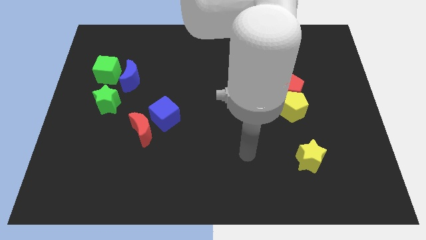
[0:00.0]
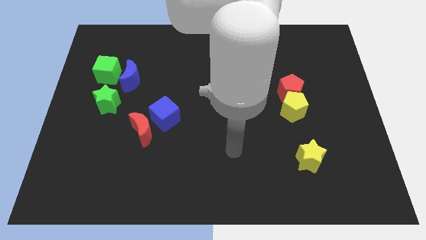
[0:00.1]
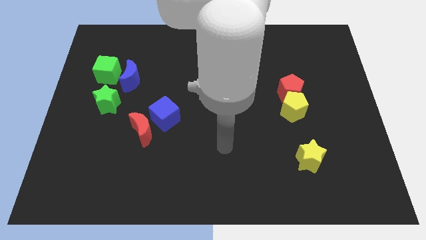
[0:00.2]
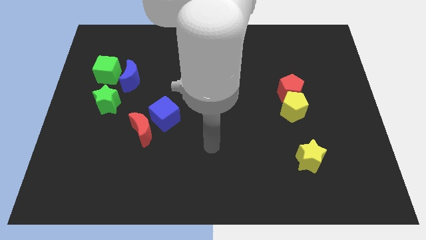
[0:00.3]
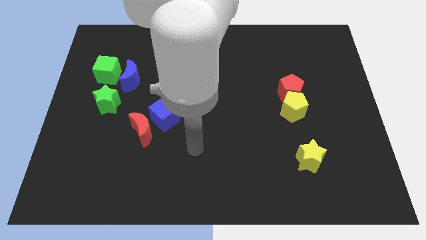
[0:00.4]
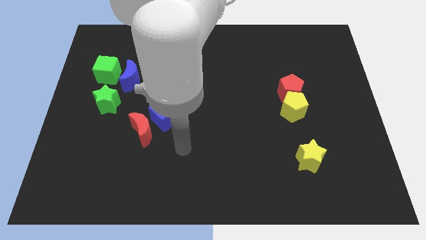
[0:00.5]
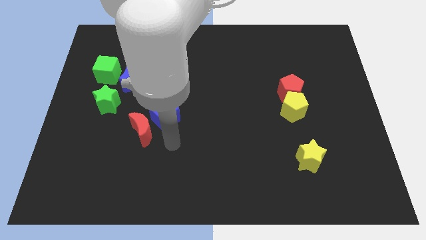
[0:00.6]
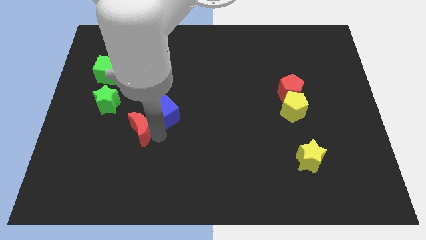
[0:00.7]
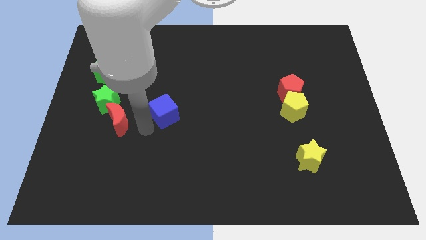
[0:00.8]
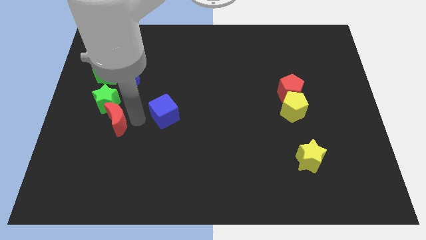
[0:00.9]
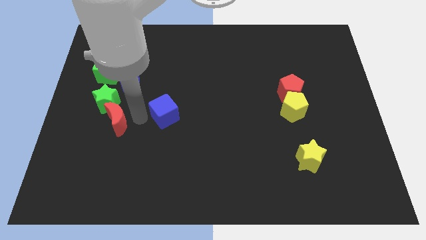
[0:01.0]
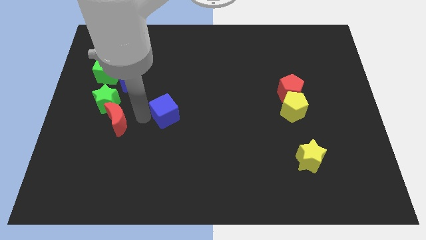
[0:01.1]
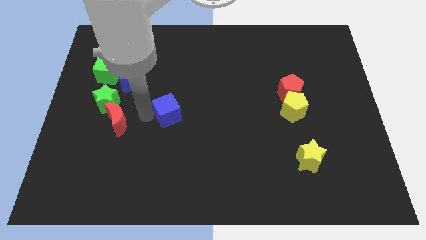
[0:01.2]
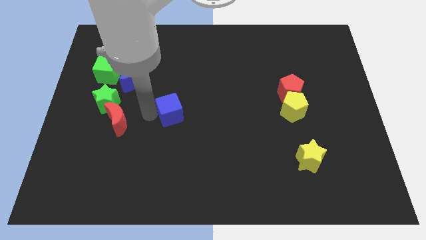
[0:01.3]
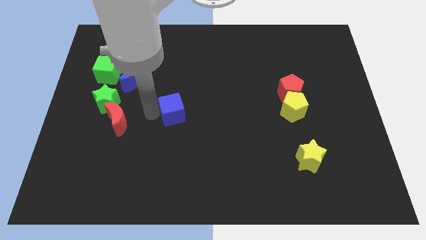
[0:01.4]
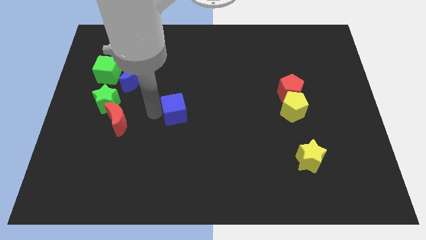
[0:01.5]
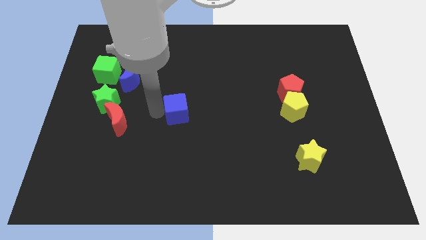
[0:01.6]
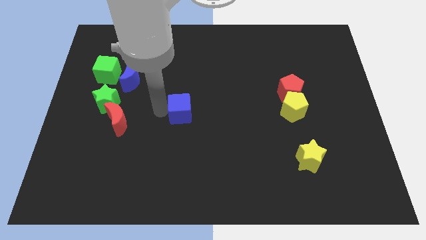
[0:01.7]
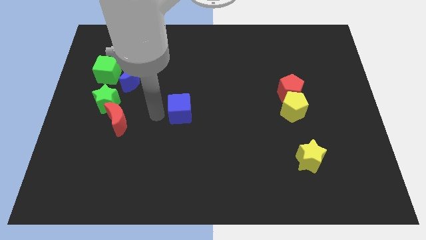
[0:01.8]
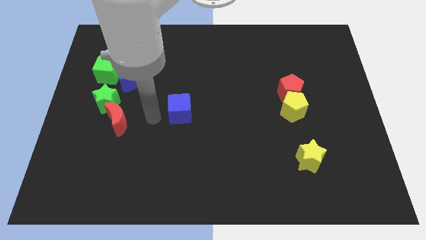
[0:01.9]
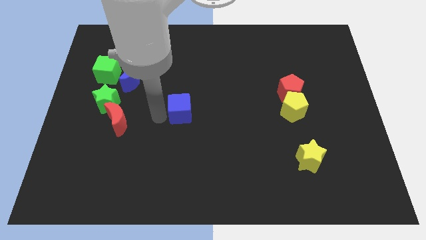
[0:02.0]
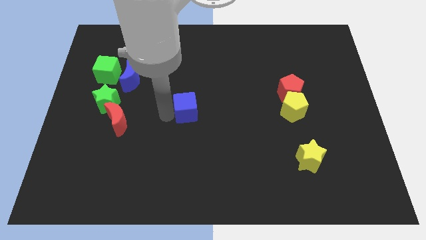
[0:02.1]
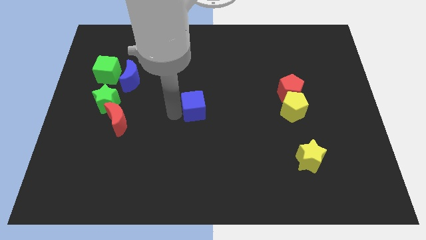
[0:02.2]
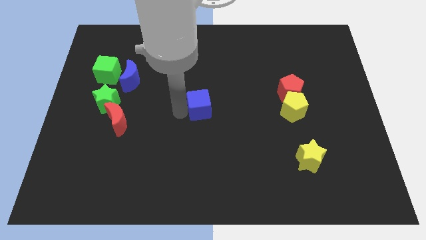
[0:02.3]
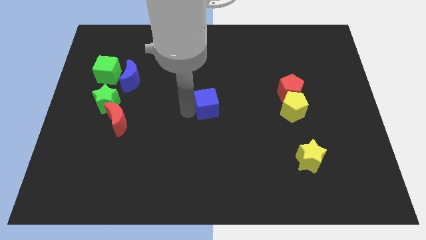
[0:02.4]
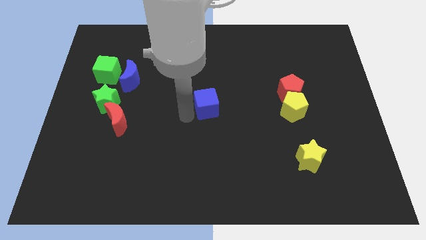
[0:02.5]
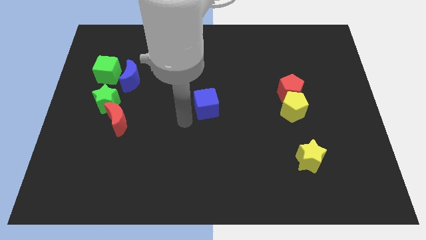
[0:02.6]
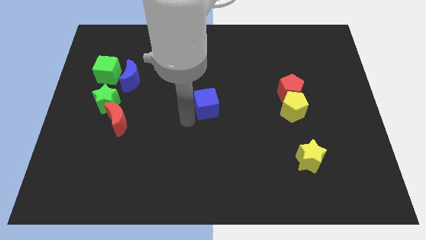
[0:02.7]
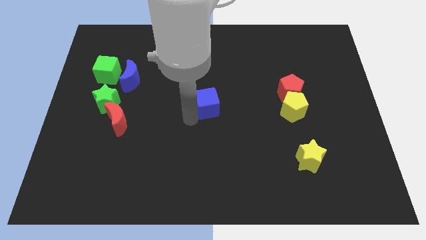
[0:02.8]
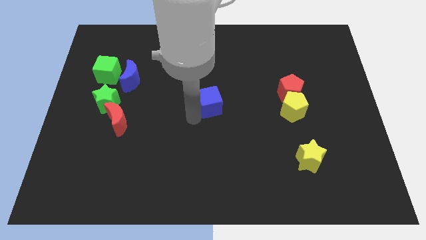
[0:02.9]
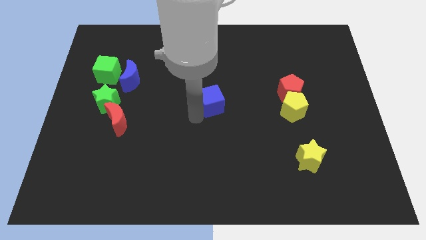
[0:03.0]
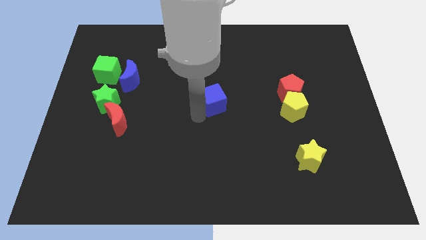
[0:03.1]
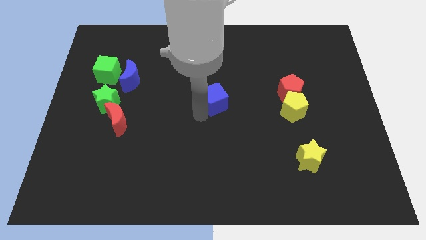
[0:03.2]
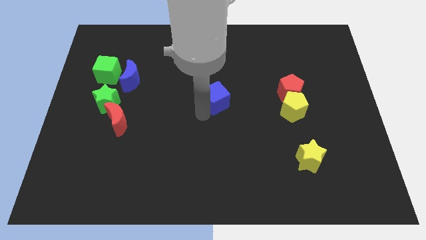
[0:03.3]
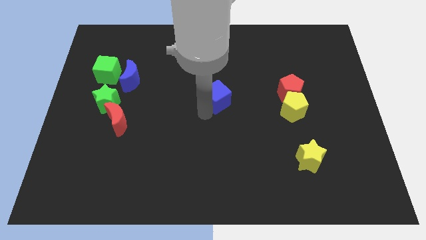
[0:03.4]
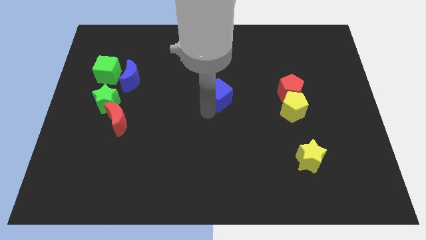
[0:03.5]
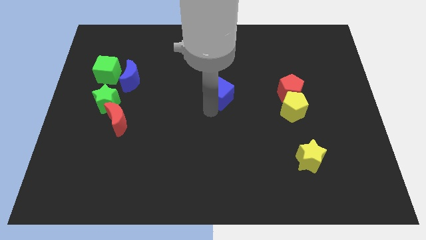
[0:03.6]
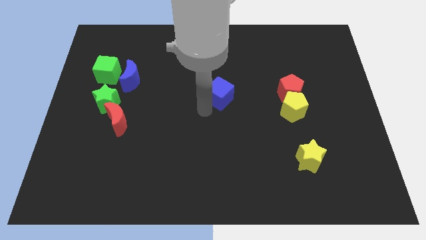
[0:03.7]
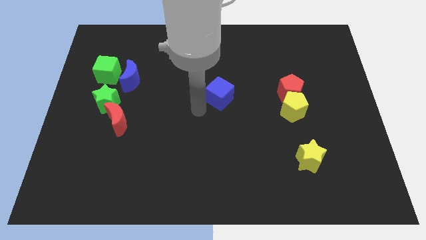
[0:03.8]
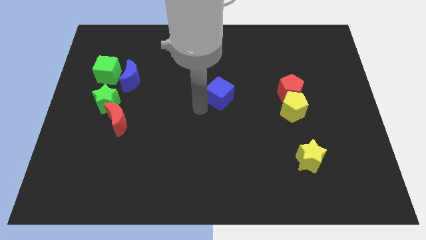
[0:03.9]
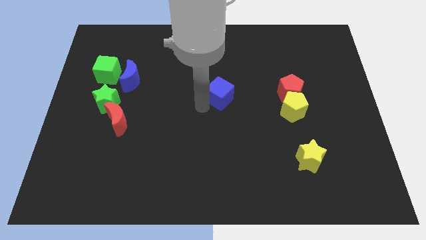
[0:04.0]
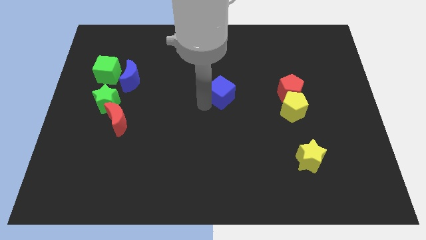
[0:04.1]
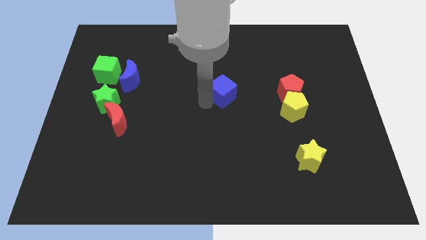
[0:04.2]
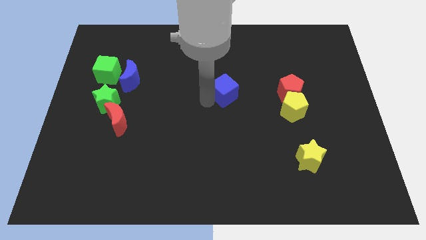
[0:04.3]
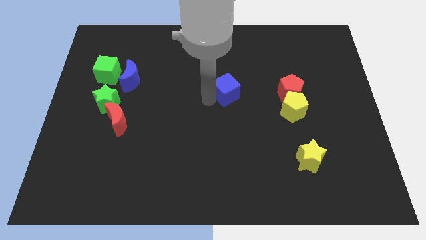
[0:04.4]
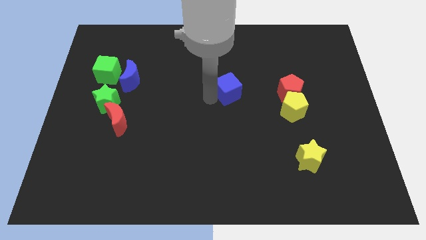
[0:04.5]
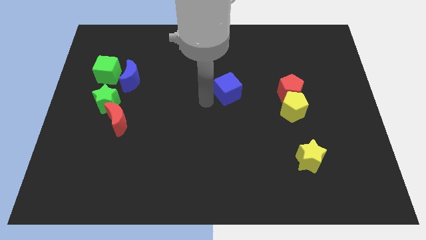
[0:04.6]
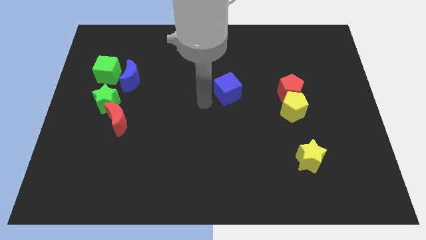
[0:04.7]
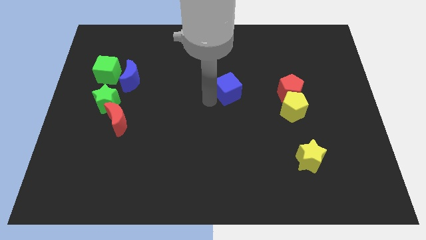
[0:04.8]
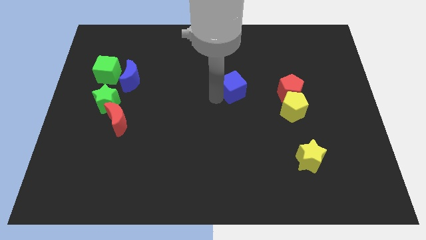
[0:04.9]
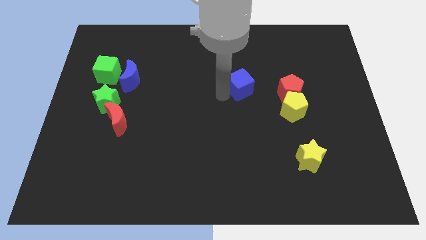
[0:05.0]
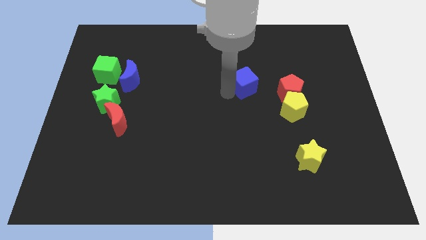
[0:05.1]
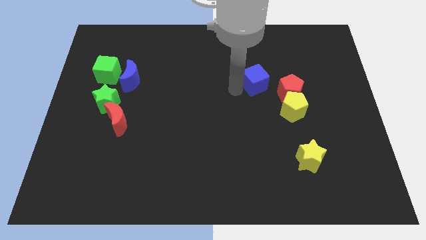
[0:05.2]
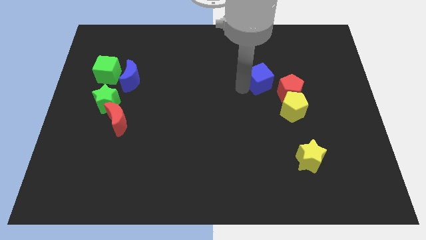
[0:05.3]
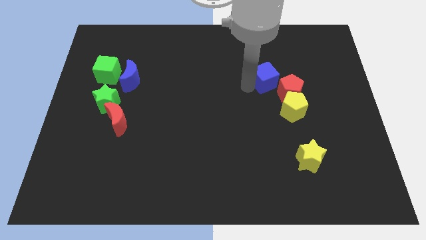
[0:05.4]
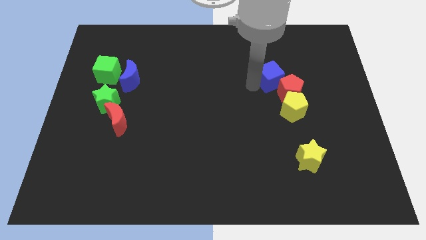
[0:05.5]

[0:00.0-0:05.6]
put the blue cube to the top side of the red pentagon

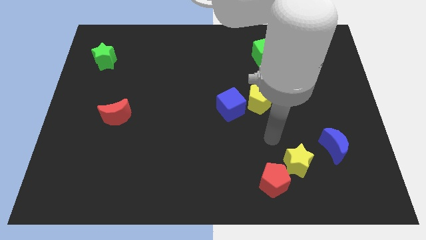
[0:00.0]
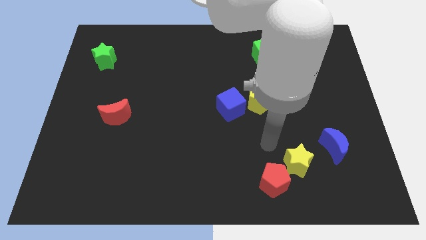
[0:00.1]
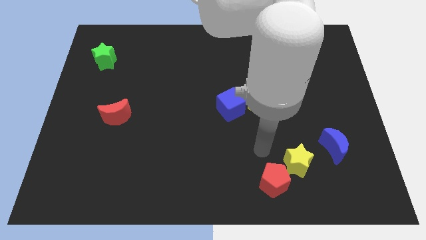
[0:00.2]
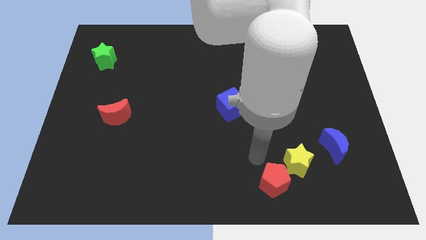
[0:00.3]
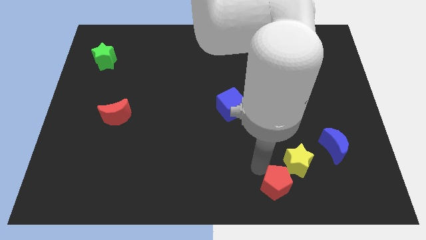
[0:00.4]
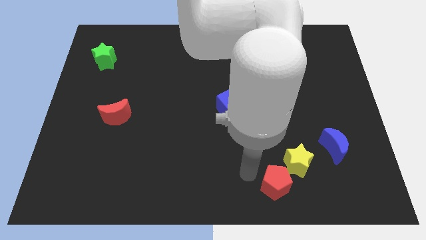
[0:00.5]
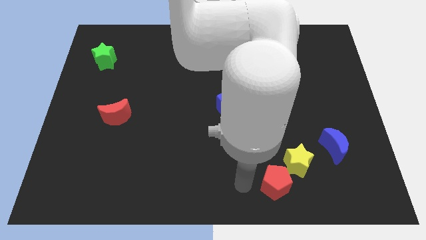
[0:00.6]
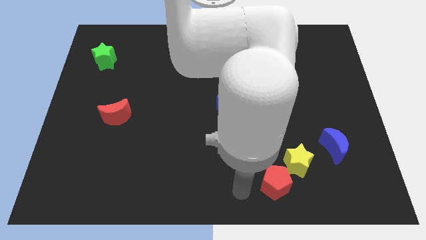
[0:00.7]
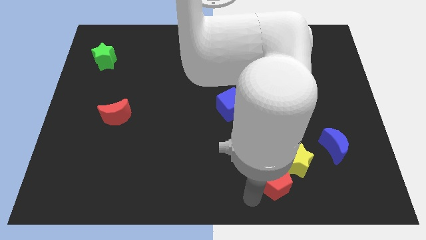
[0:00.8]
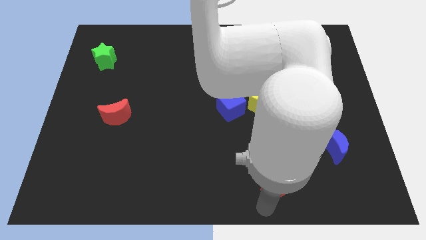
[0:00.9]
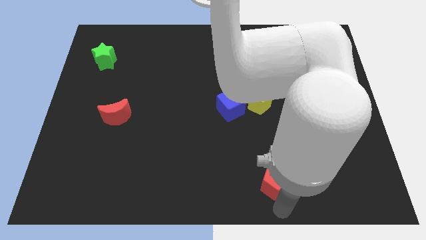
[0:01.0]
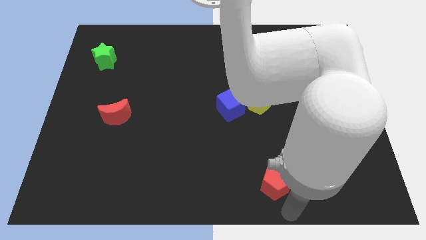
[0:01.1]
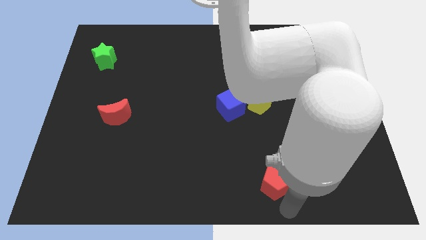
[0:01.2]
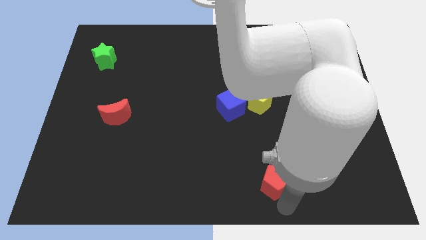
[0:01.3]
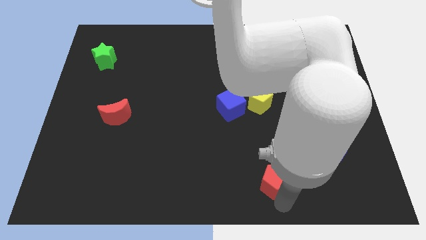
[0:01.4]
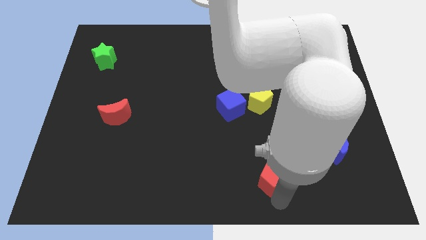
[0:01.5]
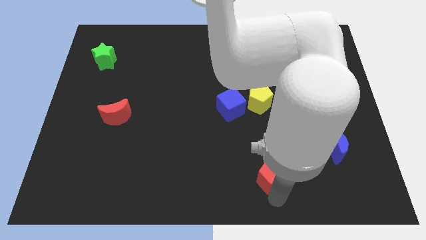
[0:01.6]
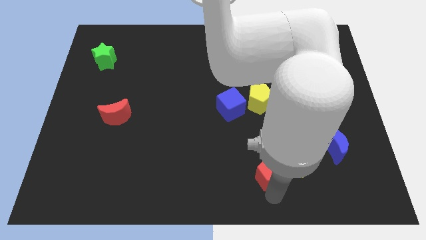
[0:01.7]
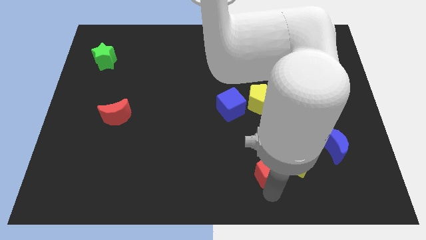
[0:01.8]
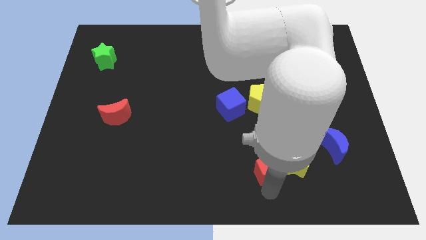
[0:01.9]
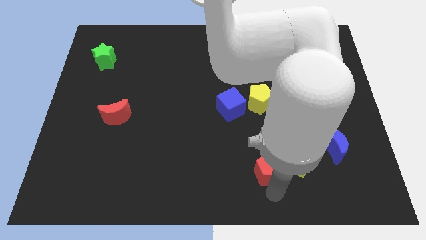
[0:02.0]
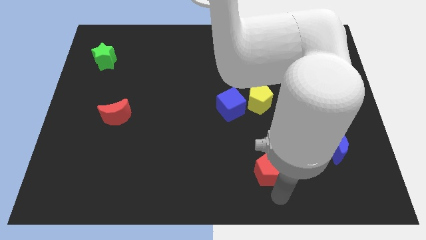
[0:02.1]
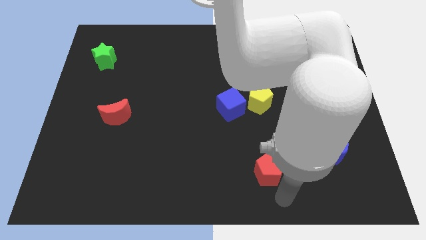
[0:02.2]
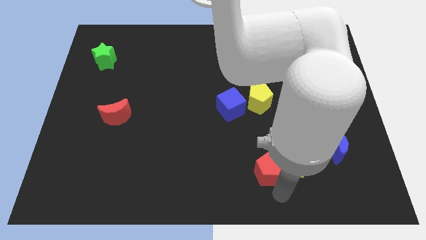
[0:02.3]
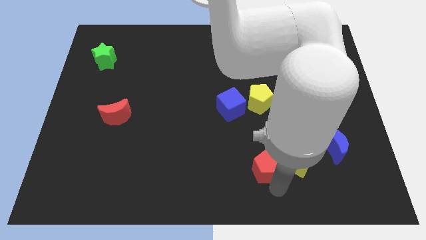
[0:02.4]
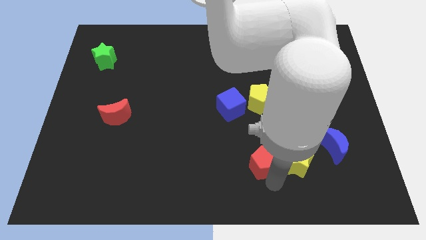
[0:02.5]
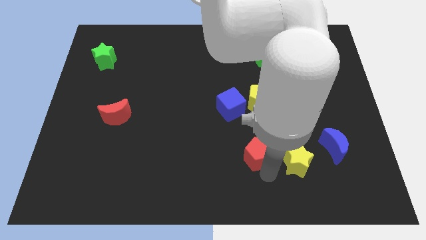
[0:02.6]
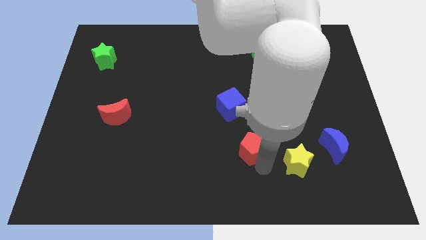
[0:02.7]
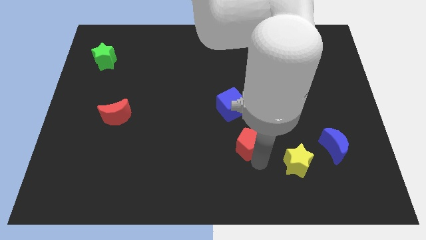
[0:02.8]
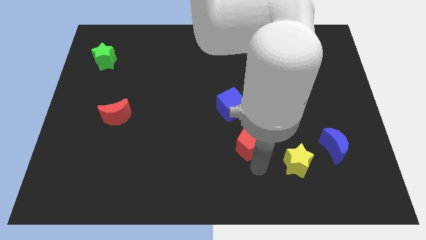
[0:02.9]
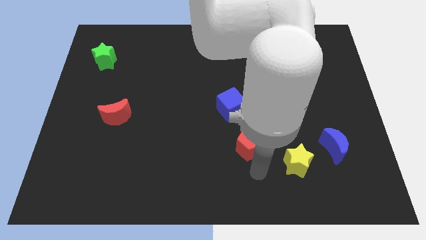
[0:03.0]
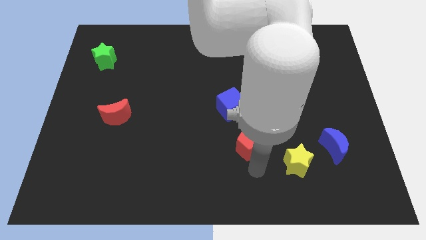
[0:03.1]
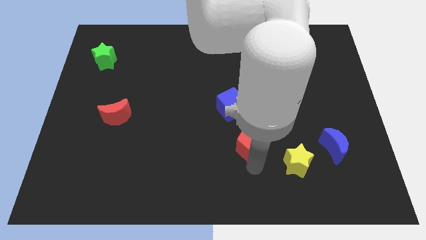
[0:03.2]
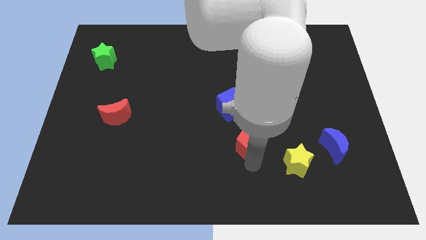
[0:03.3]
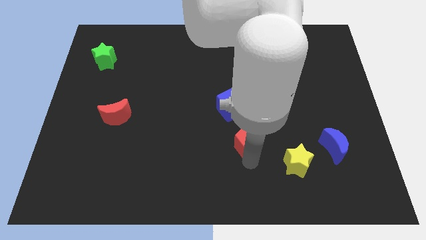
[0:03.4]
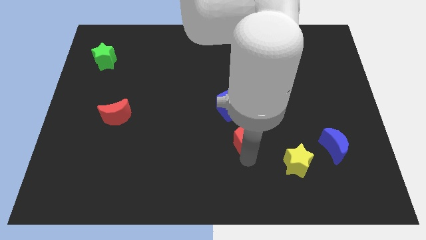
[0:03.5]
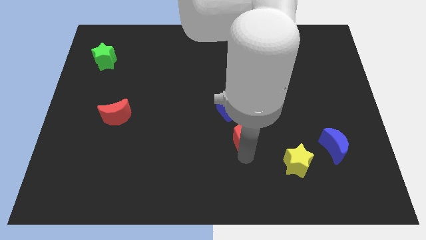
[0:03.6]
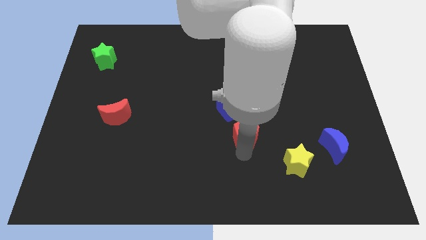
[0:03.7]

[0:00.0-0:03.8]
slide the red pentagon to the bottom left side of the yellow pentagon
